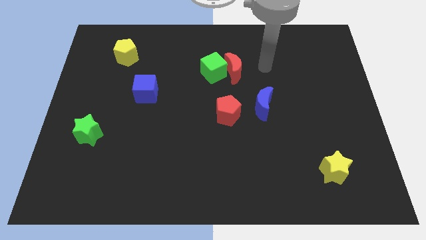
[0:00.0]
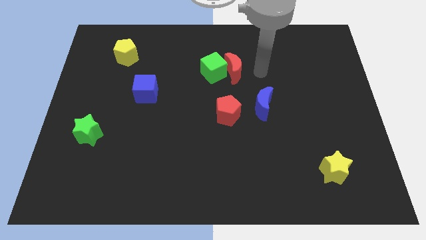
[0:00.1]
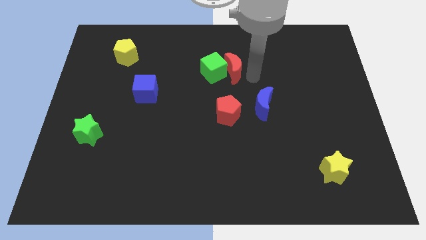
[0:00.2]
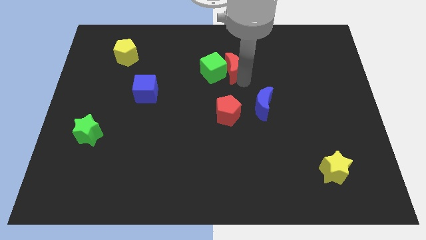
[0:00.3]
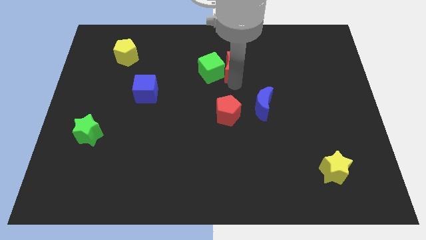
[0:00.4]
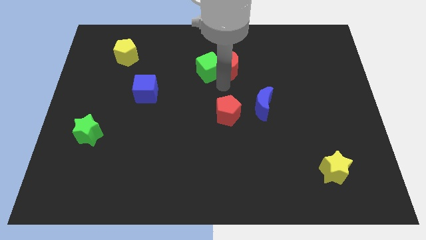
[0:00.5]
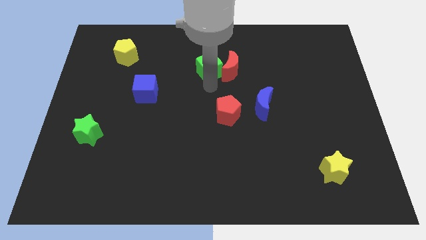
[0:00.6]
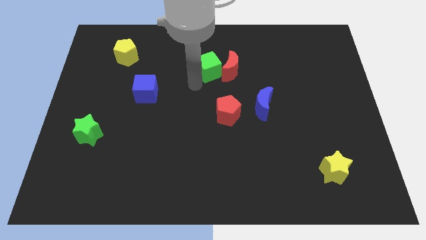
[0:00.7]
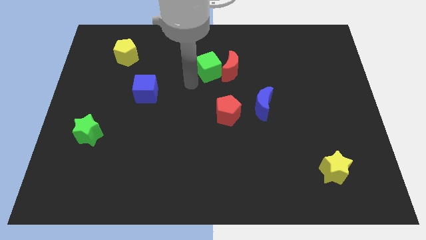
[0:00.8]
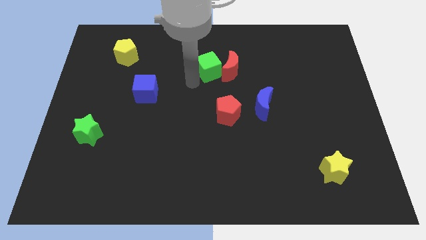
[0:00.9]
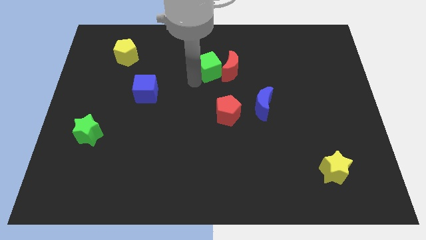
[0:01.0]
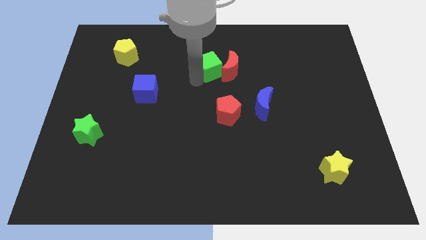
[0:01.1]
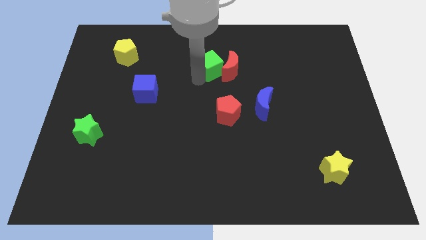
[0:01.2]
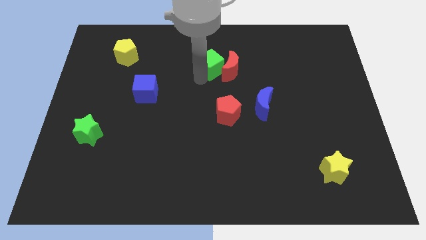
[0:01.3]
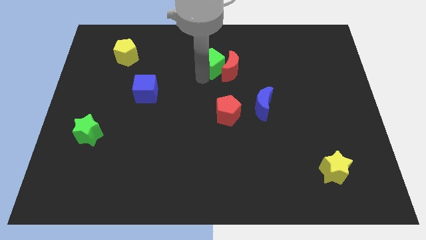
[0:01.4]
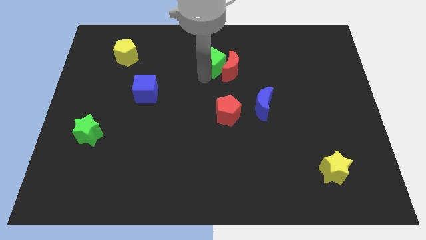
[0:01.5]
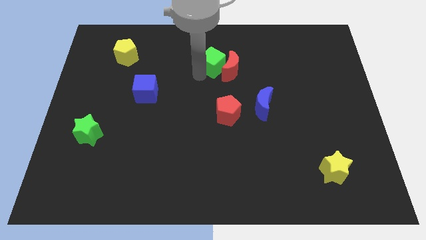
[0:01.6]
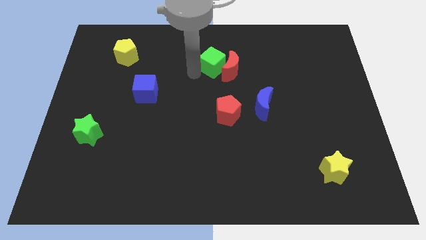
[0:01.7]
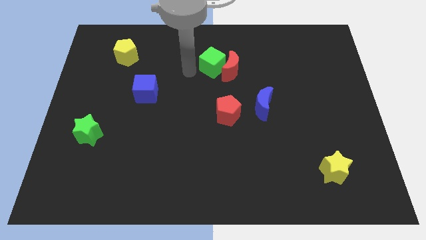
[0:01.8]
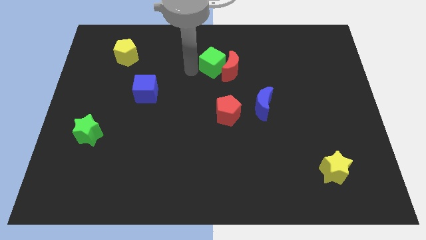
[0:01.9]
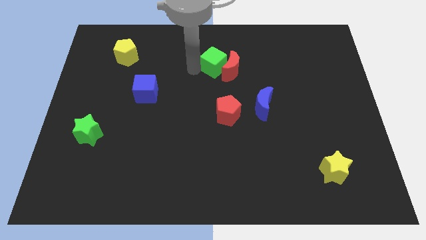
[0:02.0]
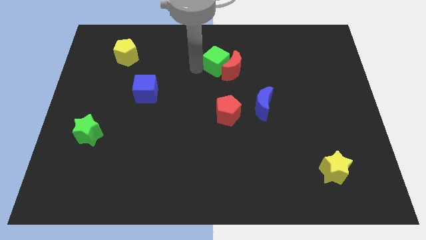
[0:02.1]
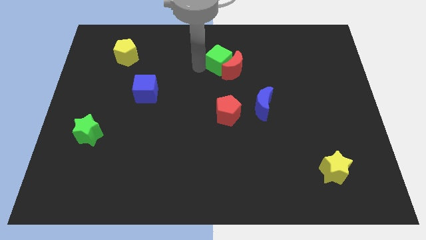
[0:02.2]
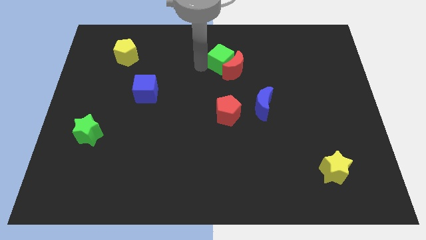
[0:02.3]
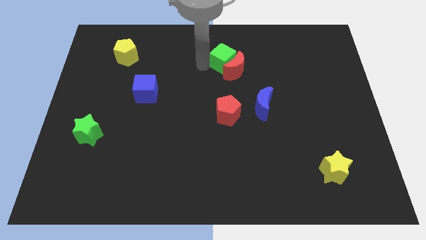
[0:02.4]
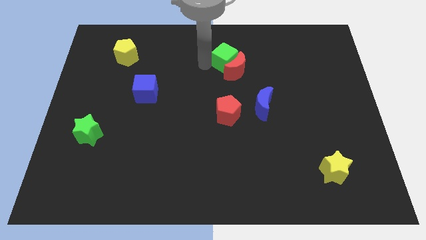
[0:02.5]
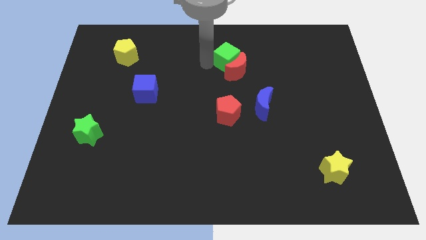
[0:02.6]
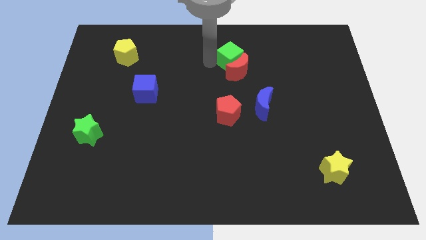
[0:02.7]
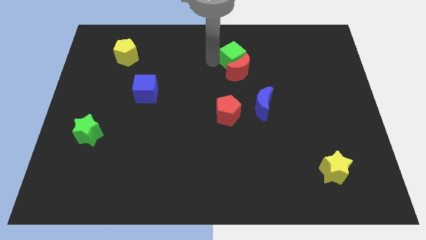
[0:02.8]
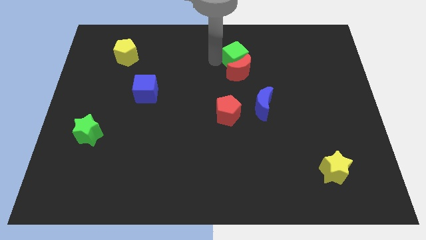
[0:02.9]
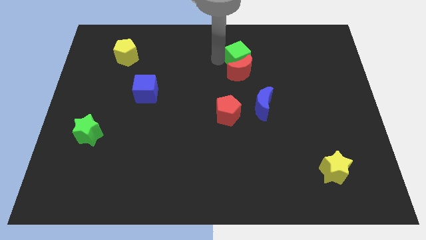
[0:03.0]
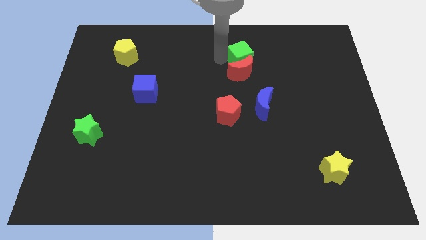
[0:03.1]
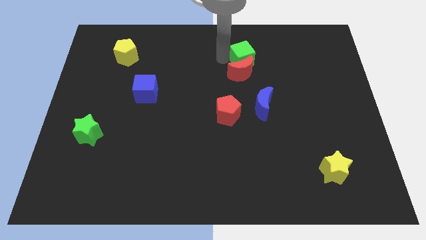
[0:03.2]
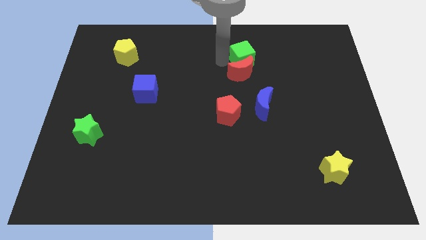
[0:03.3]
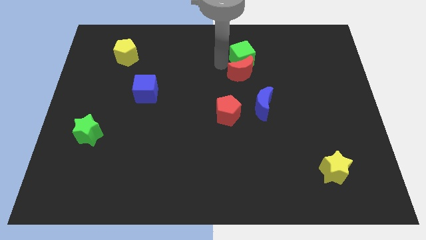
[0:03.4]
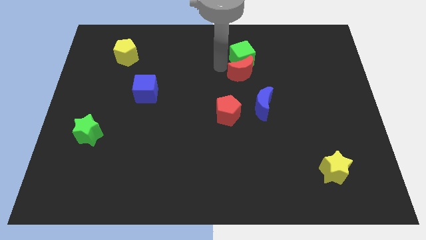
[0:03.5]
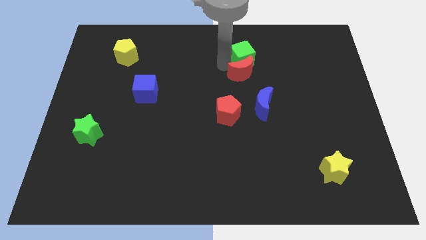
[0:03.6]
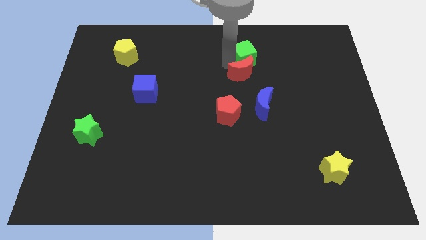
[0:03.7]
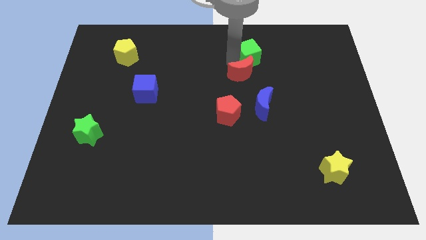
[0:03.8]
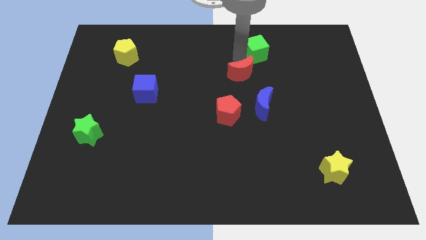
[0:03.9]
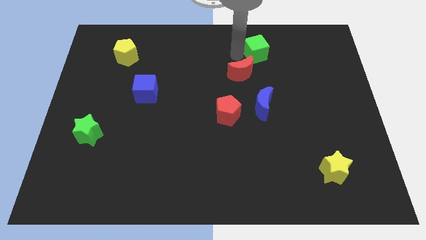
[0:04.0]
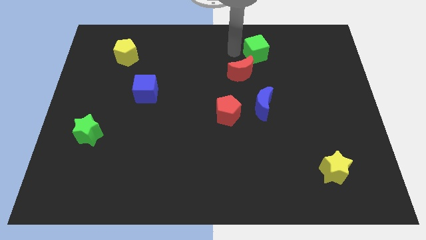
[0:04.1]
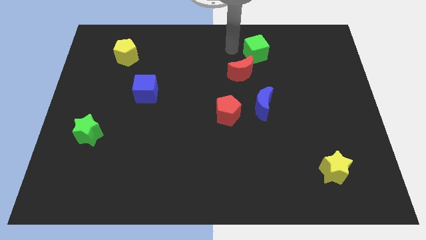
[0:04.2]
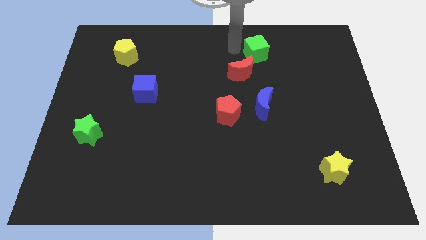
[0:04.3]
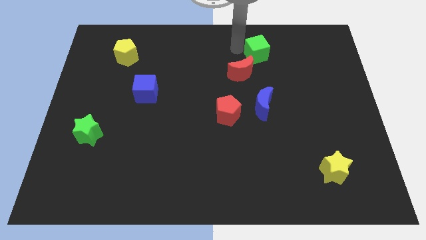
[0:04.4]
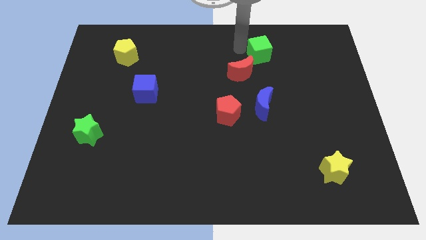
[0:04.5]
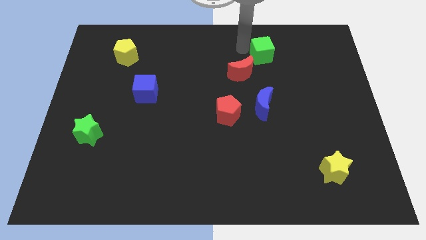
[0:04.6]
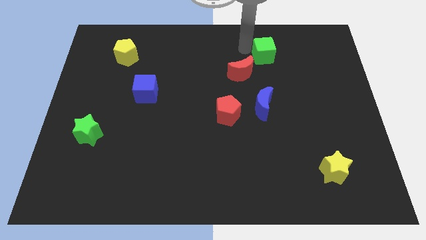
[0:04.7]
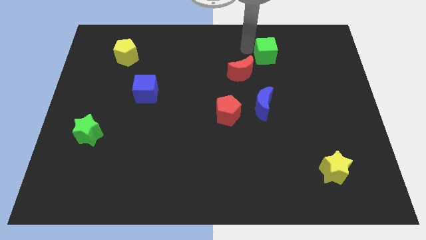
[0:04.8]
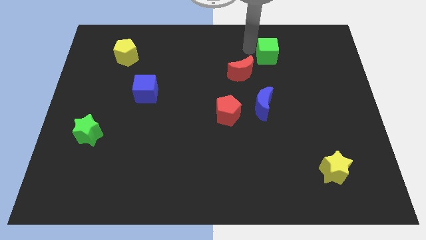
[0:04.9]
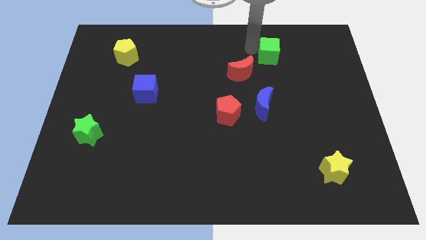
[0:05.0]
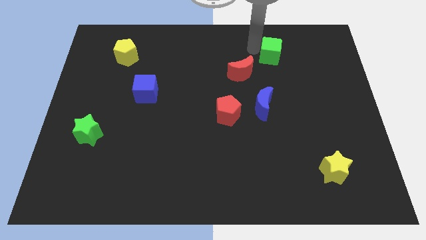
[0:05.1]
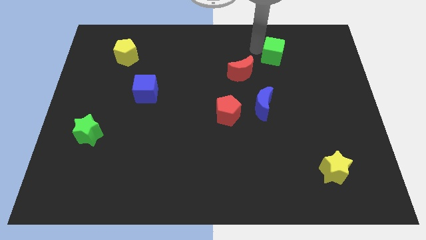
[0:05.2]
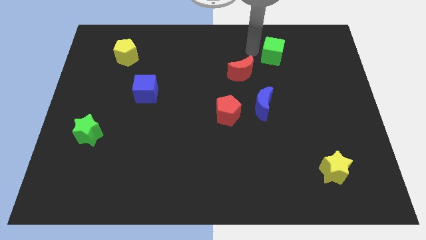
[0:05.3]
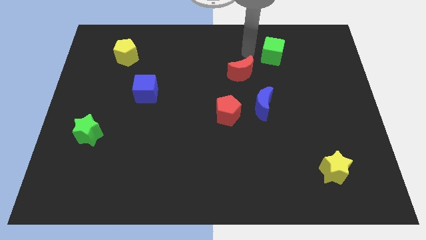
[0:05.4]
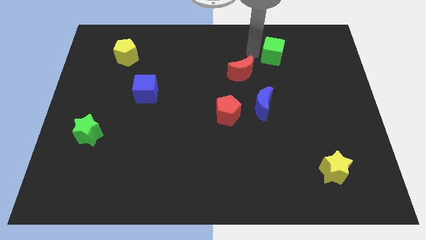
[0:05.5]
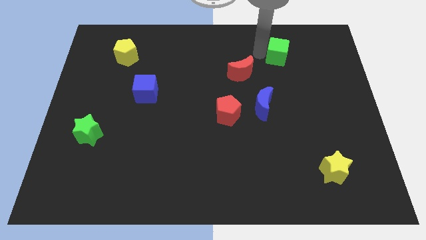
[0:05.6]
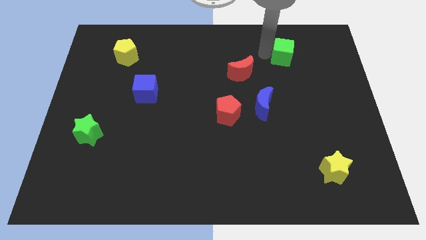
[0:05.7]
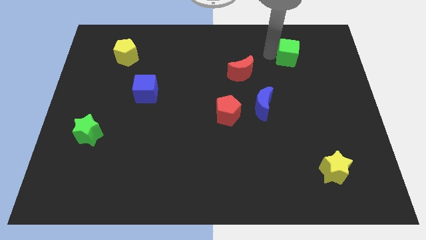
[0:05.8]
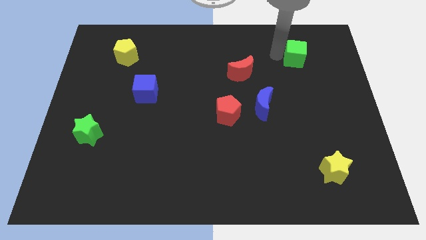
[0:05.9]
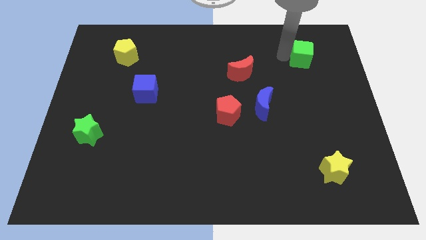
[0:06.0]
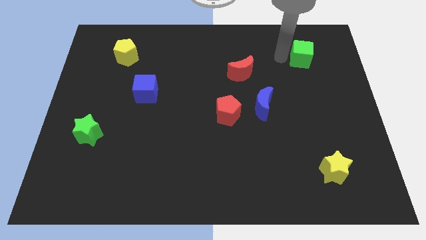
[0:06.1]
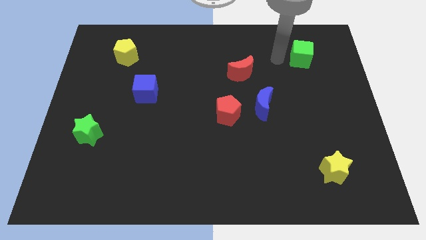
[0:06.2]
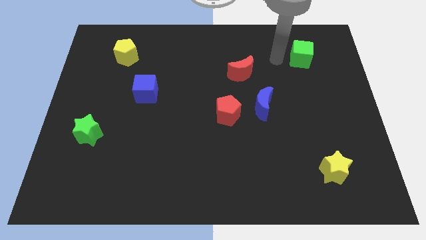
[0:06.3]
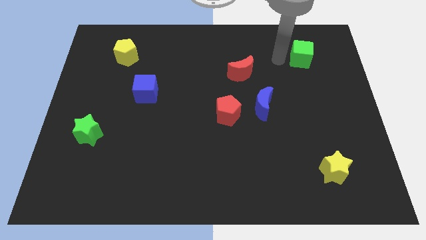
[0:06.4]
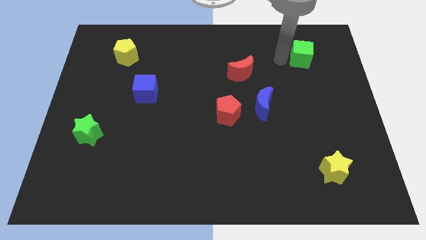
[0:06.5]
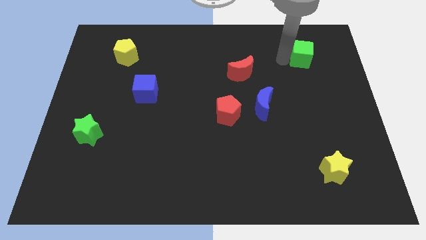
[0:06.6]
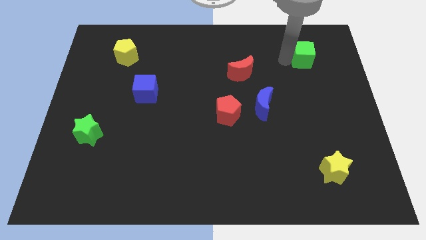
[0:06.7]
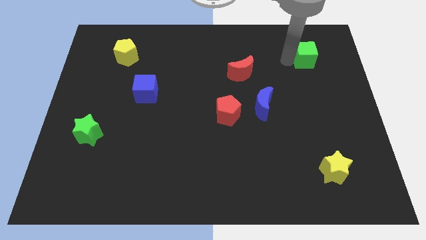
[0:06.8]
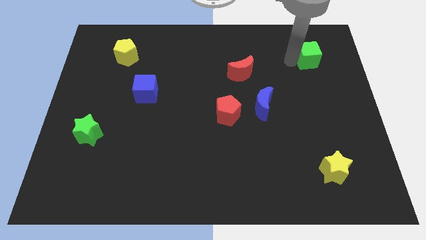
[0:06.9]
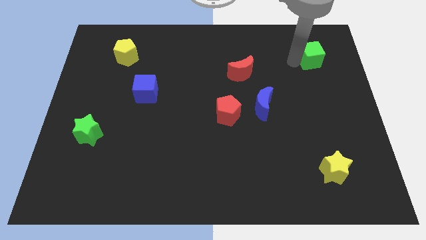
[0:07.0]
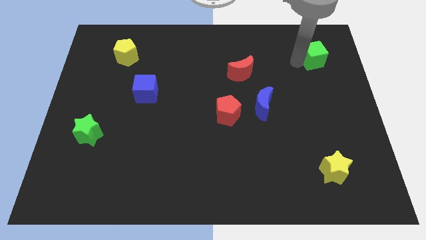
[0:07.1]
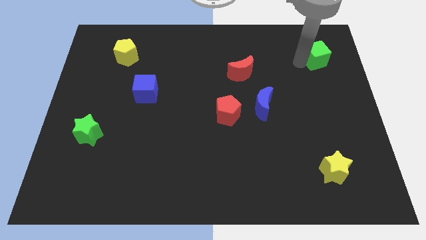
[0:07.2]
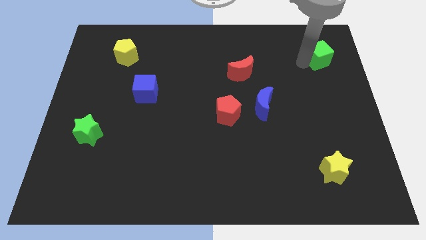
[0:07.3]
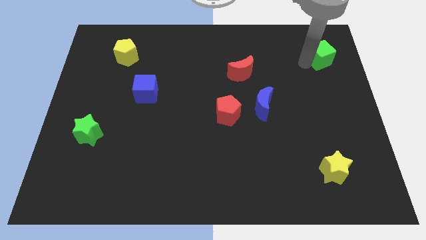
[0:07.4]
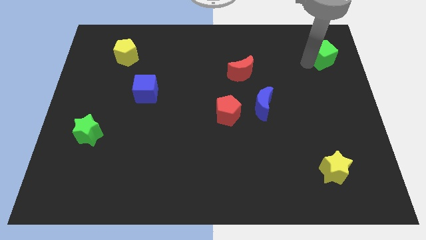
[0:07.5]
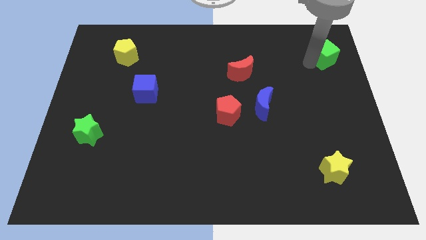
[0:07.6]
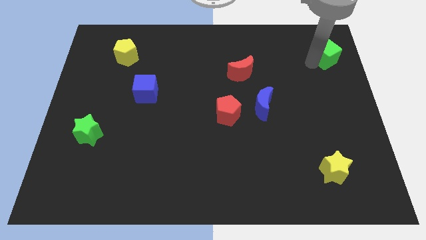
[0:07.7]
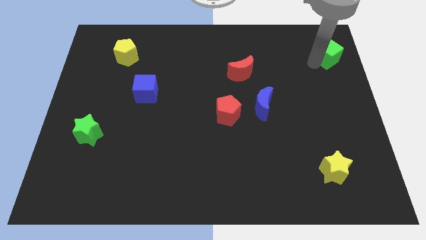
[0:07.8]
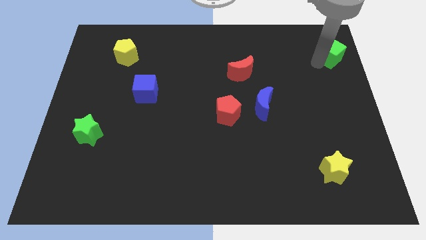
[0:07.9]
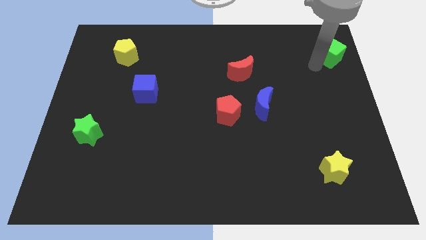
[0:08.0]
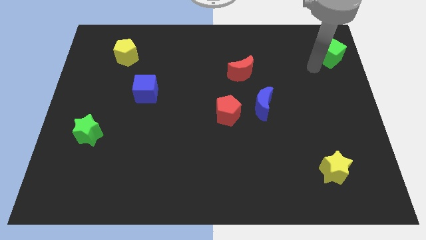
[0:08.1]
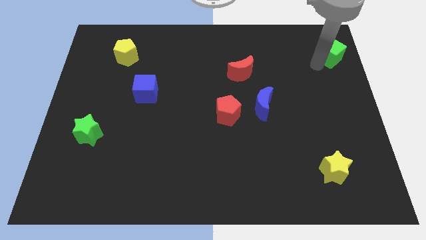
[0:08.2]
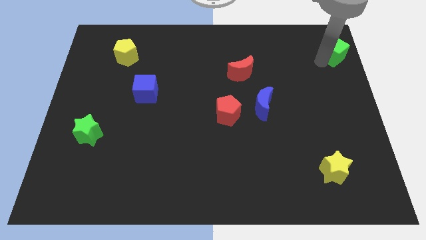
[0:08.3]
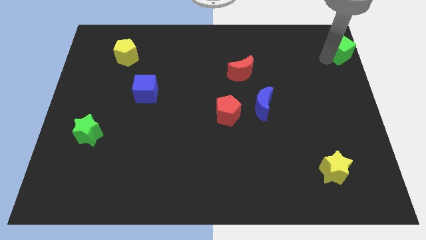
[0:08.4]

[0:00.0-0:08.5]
put the green cube to the top right corner

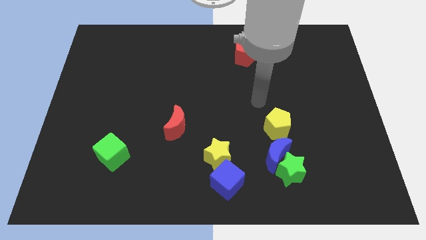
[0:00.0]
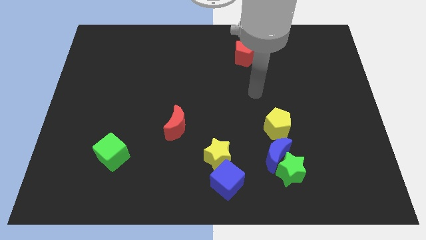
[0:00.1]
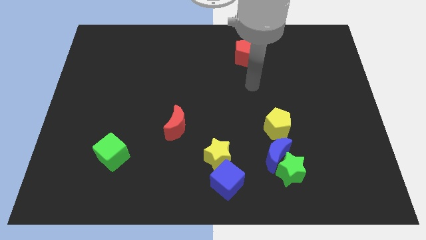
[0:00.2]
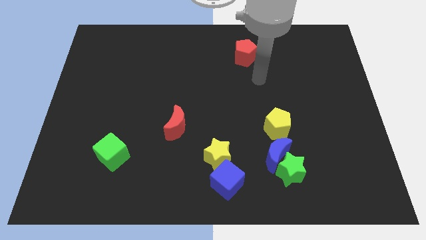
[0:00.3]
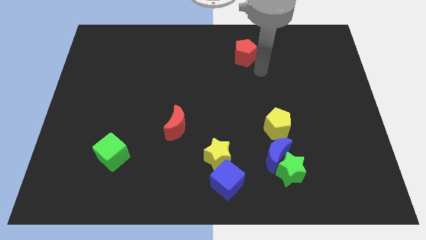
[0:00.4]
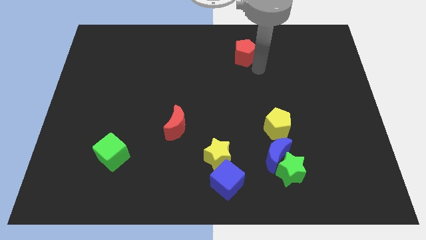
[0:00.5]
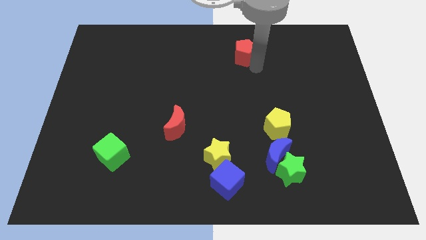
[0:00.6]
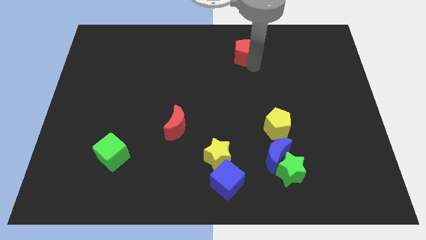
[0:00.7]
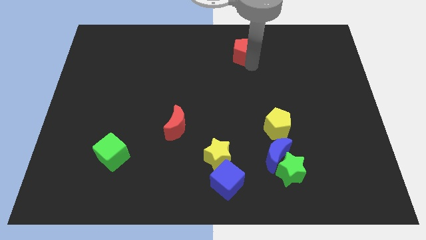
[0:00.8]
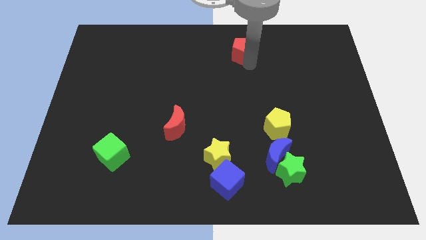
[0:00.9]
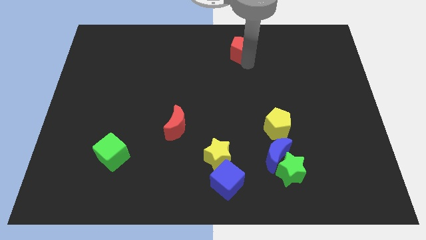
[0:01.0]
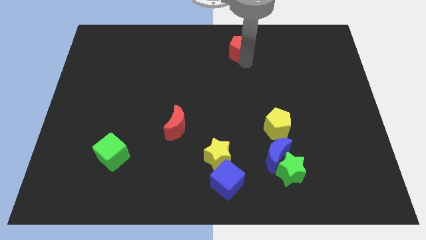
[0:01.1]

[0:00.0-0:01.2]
put the red pentagon to the top
